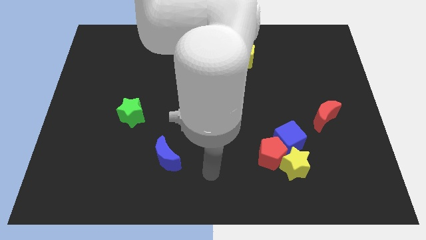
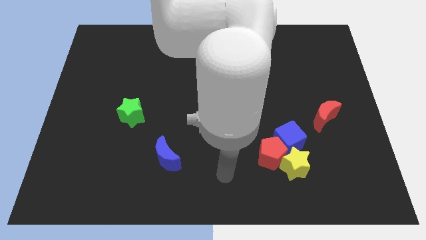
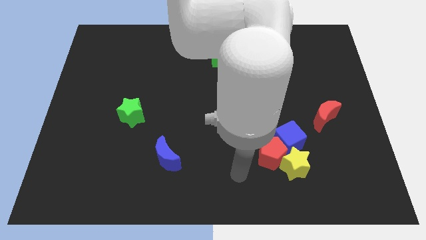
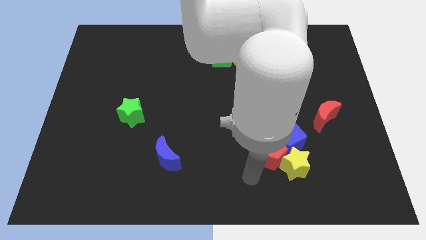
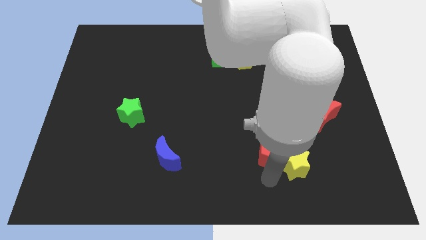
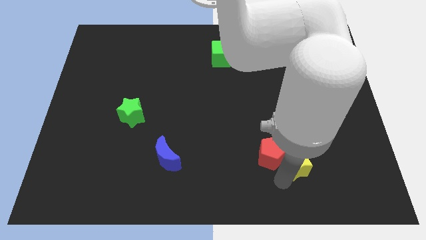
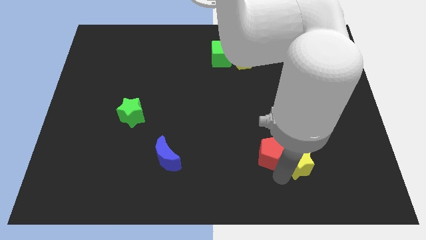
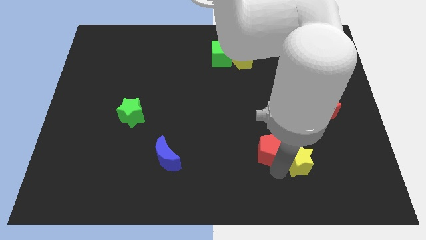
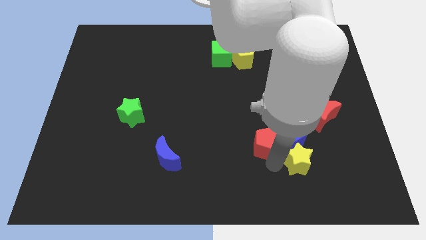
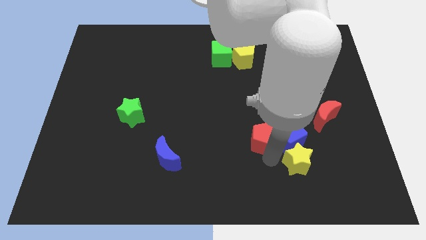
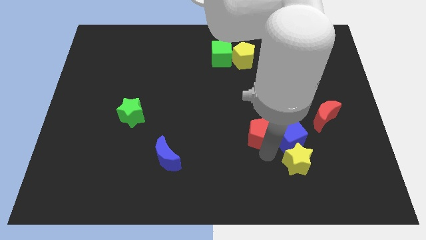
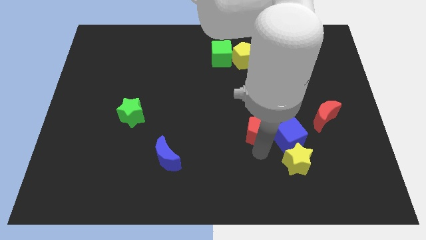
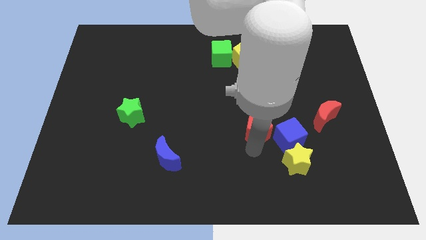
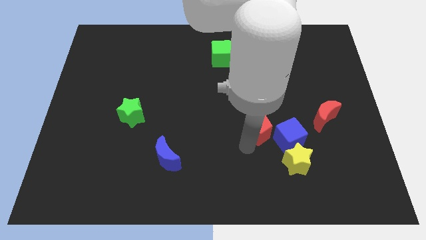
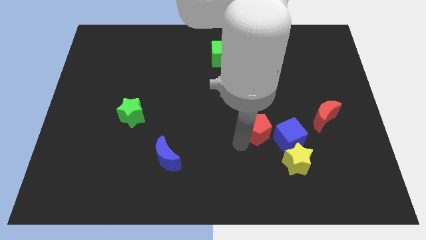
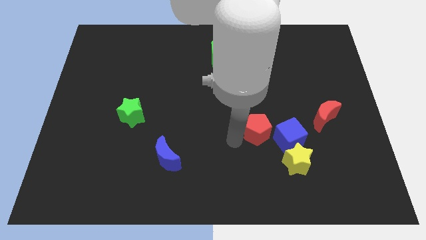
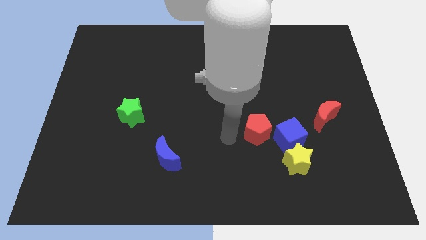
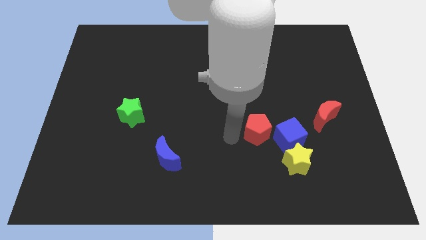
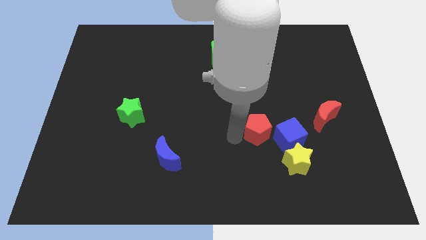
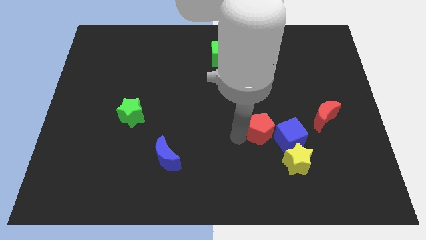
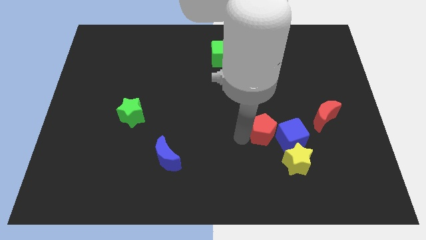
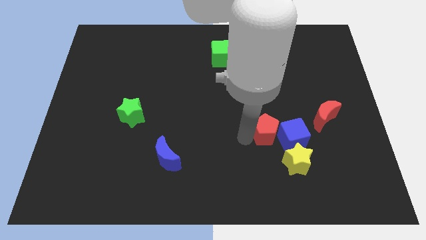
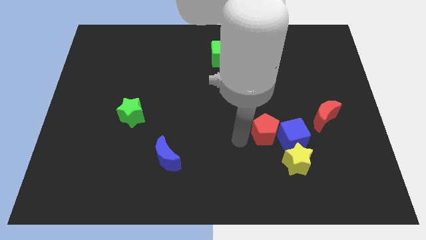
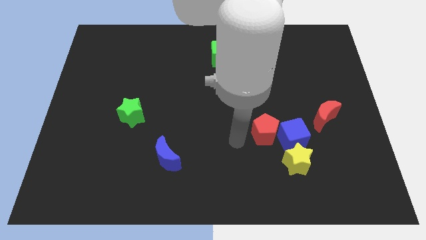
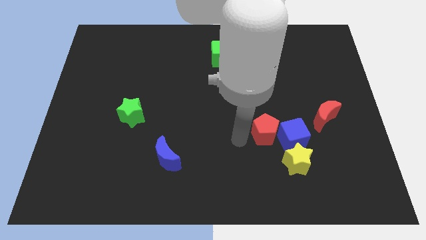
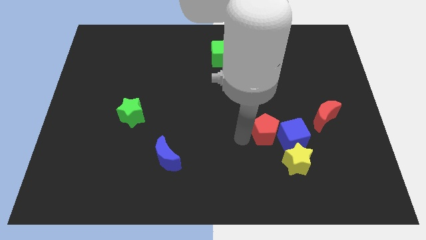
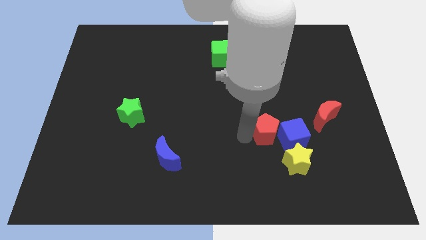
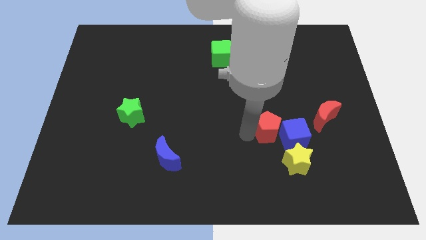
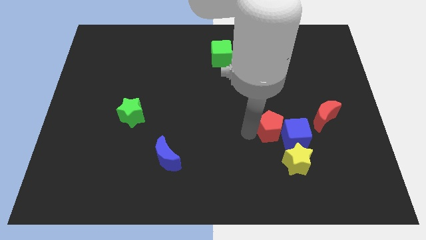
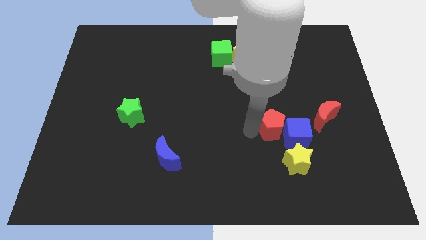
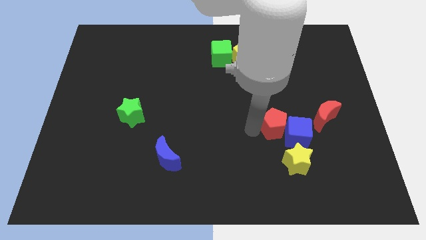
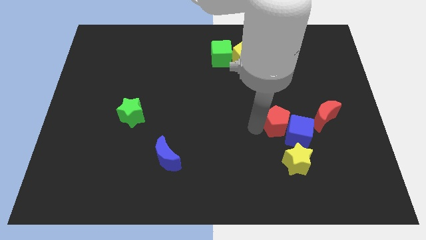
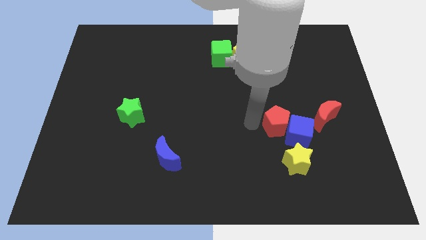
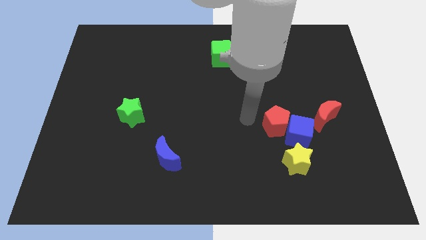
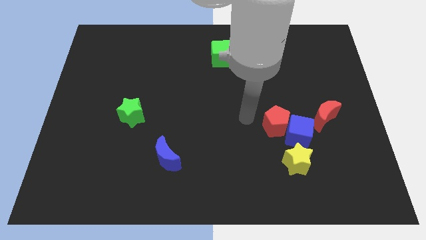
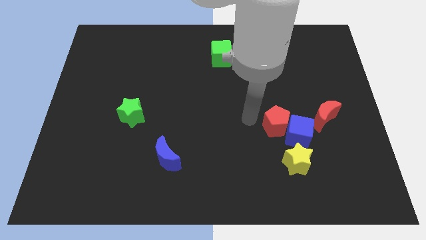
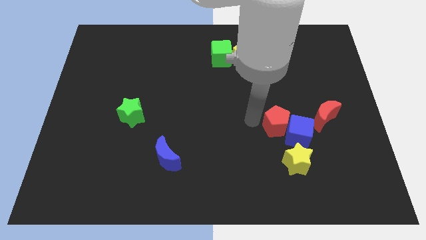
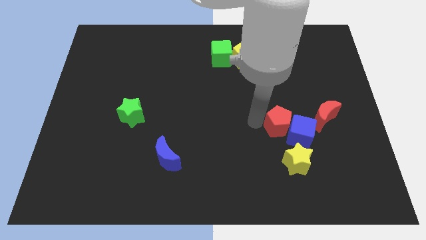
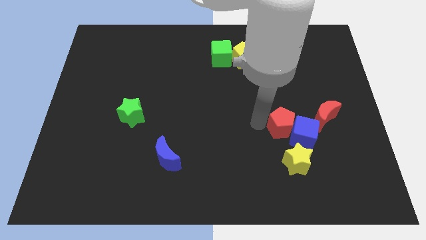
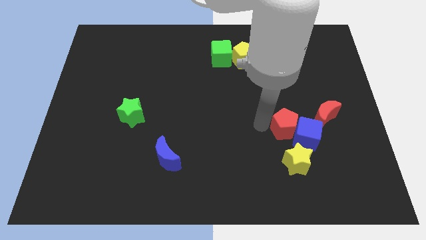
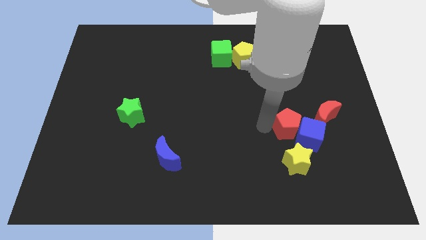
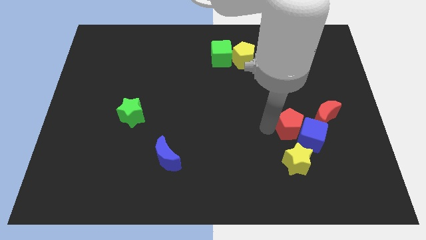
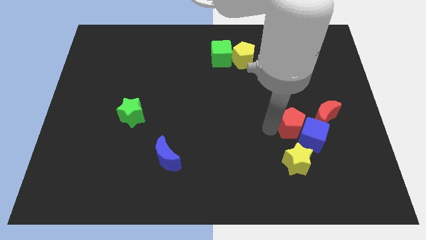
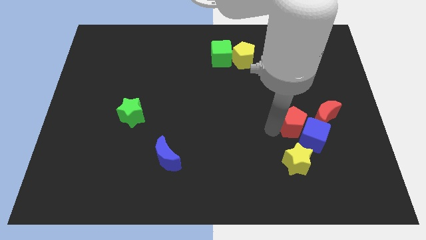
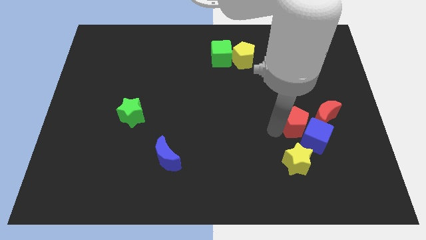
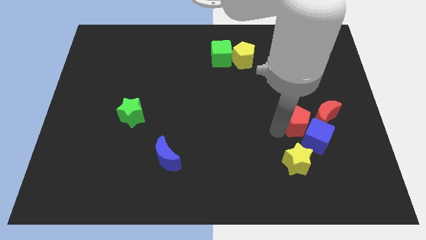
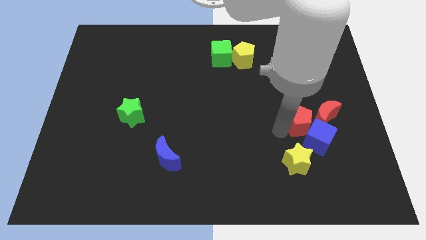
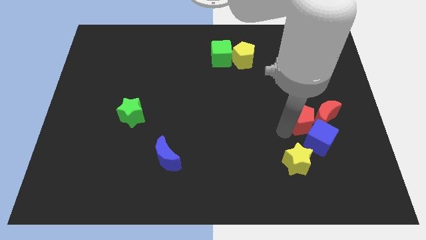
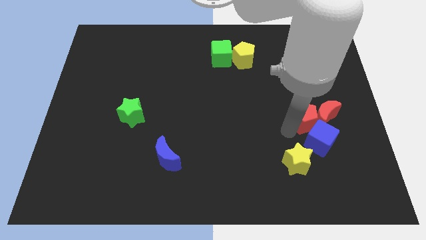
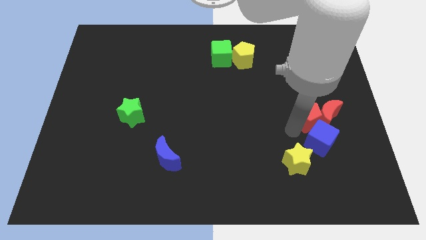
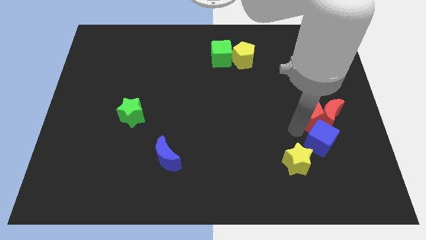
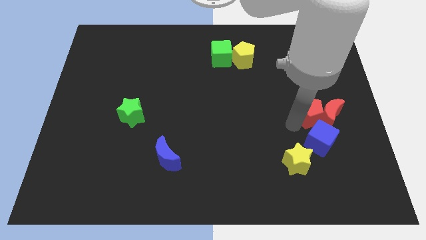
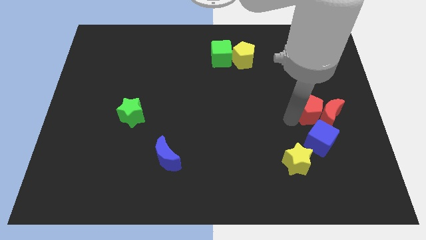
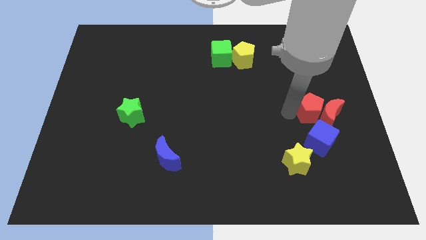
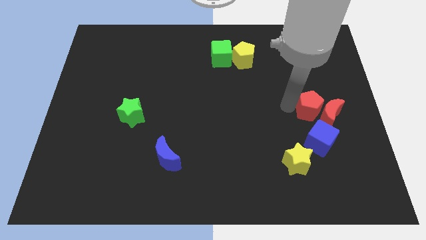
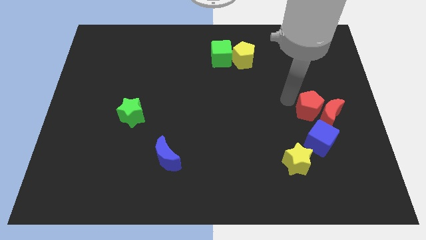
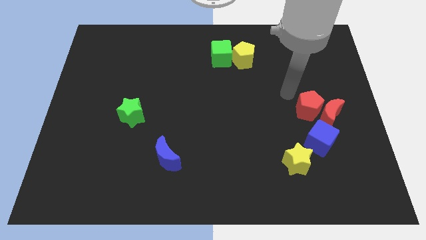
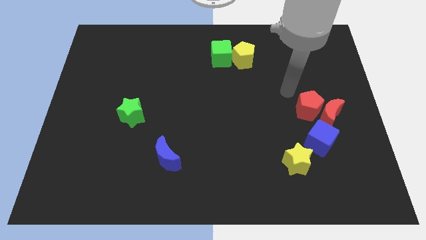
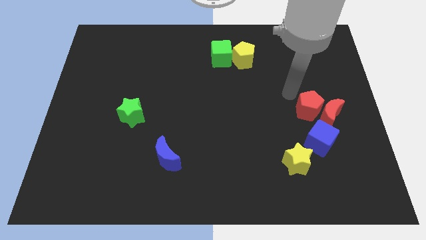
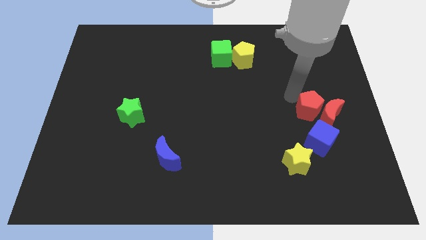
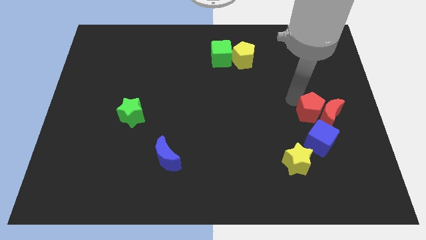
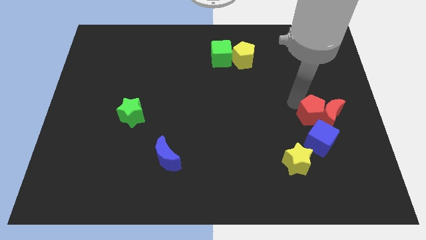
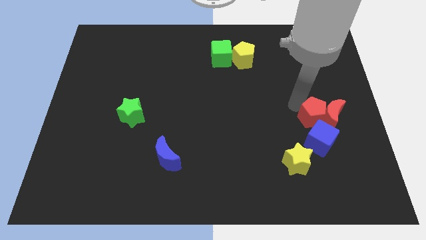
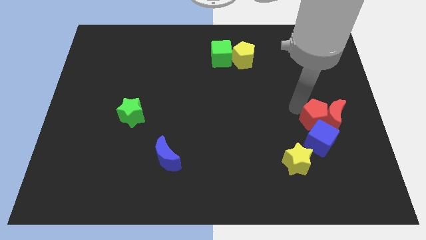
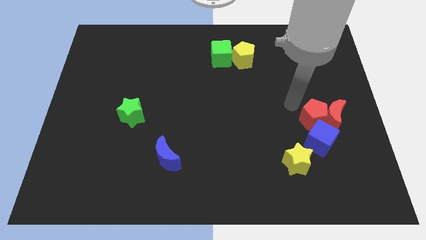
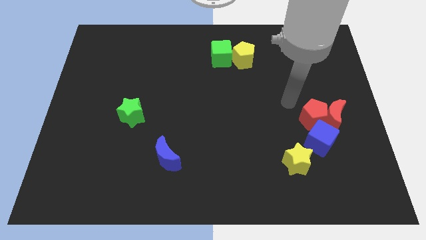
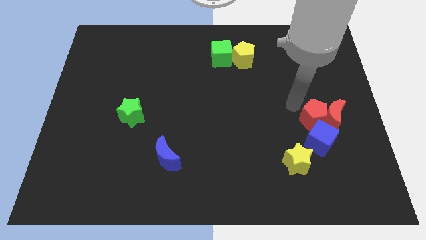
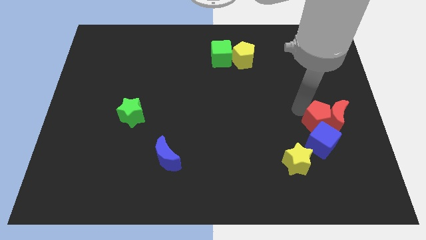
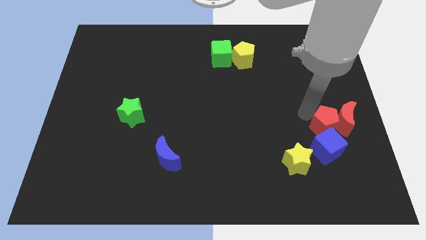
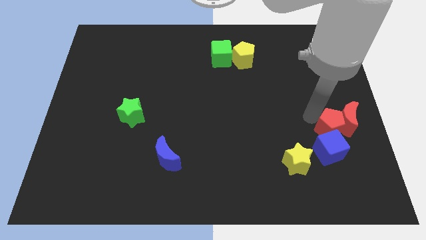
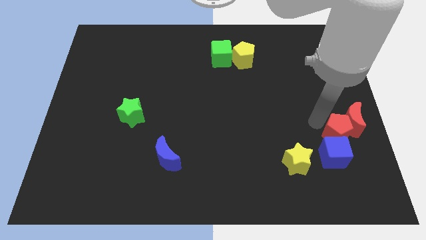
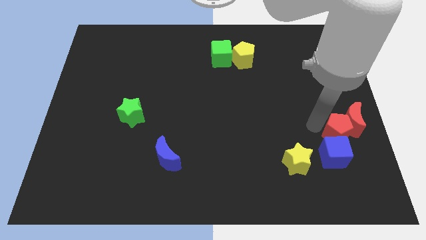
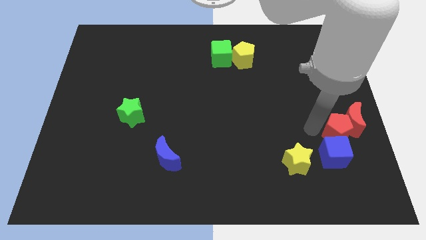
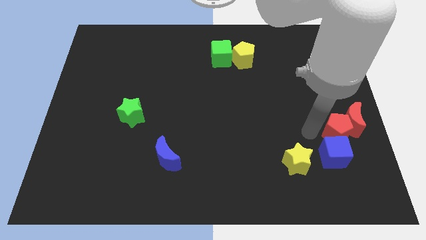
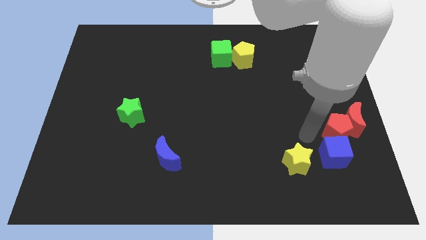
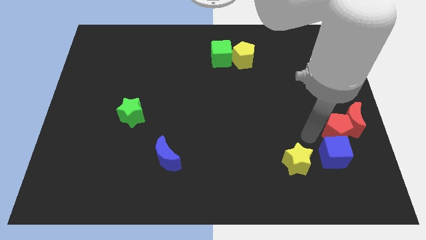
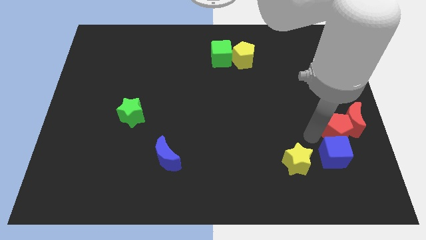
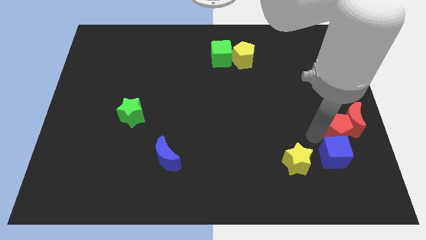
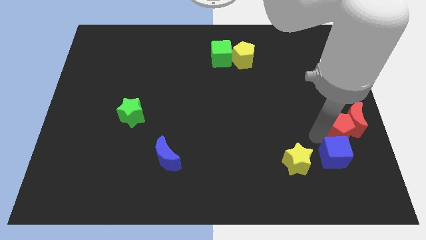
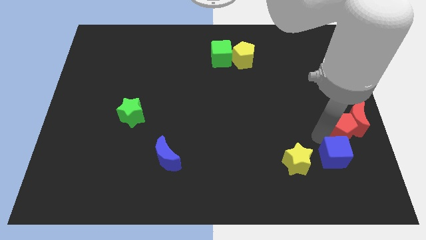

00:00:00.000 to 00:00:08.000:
put the red pentagon to the right side
